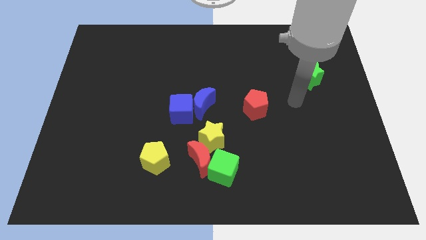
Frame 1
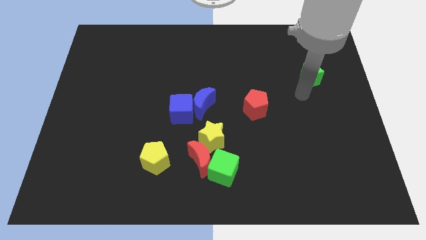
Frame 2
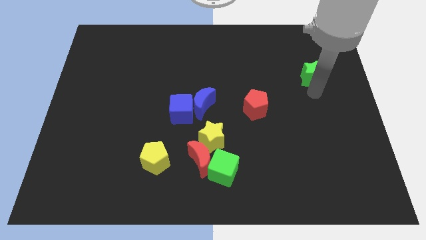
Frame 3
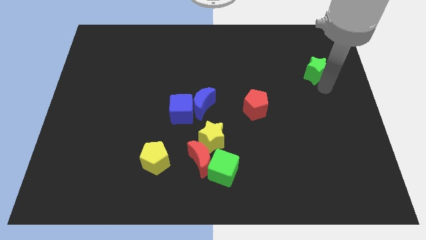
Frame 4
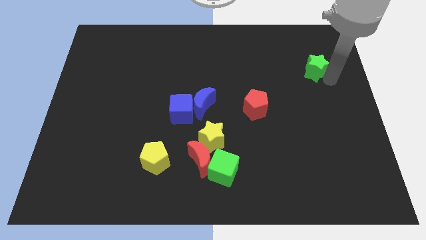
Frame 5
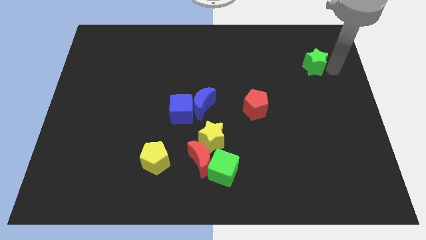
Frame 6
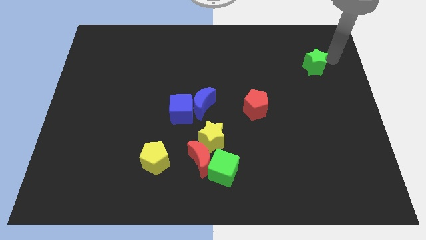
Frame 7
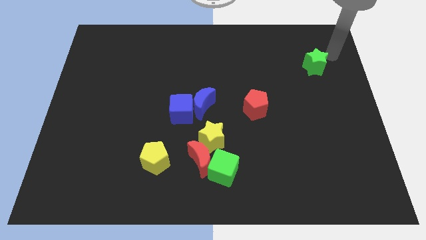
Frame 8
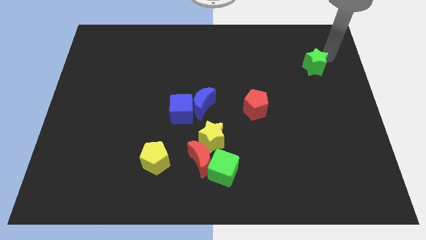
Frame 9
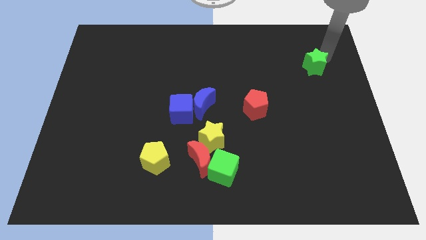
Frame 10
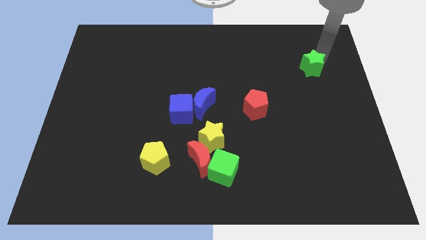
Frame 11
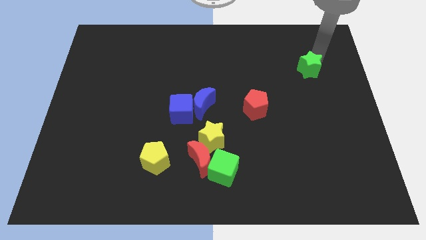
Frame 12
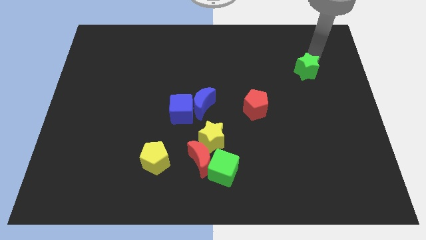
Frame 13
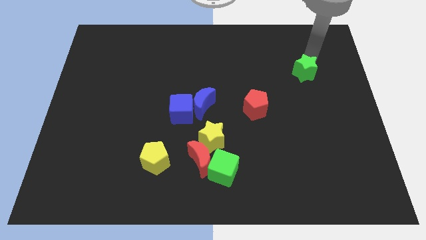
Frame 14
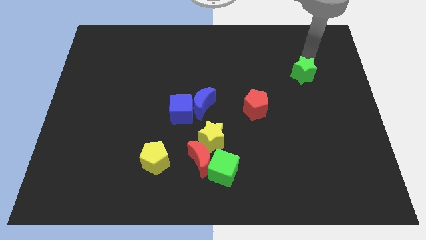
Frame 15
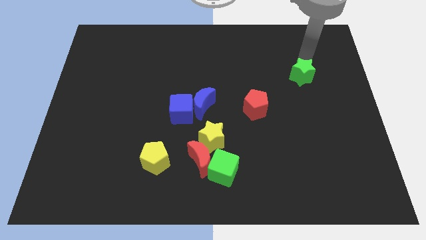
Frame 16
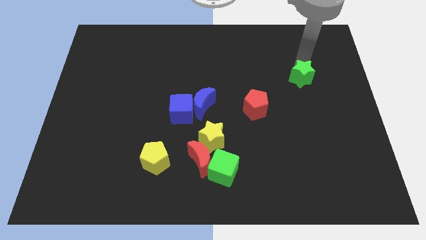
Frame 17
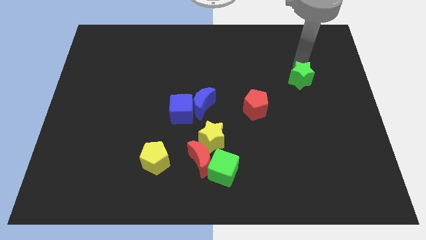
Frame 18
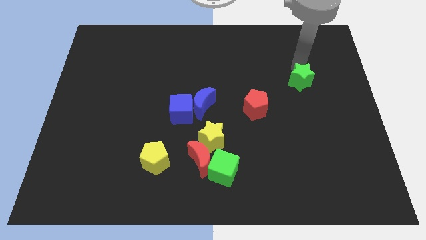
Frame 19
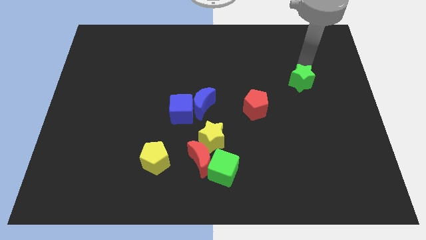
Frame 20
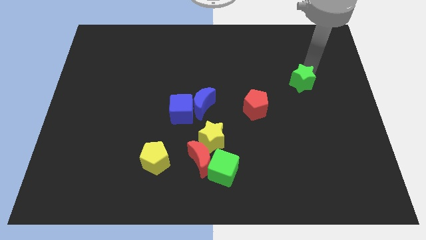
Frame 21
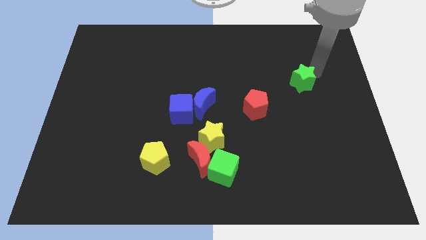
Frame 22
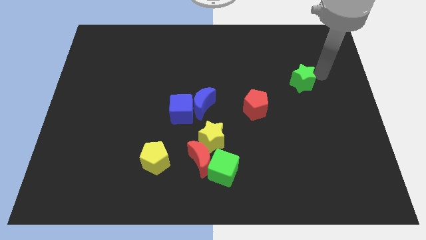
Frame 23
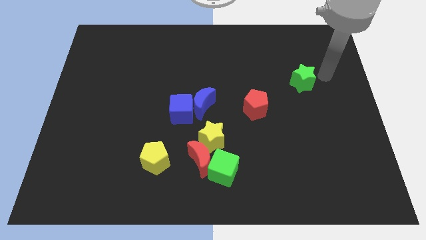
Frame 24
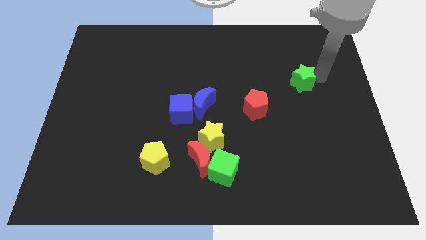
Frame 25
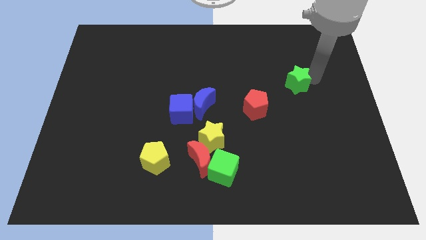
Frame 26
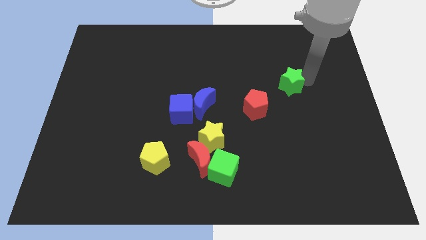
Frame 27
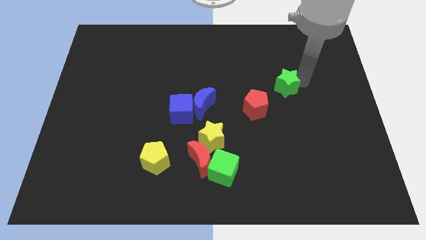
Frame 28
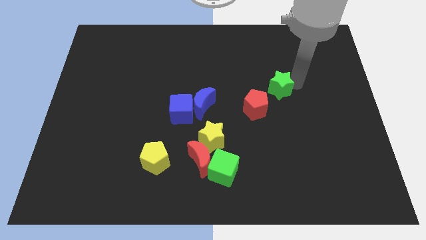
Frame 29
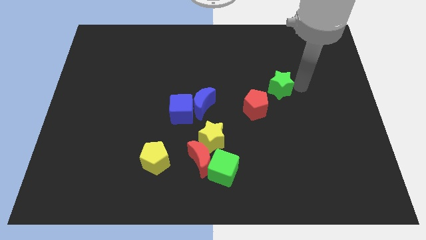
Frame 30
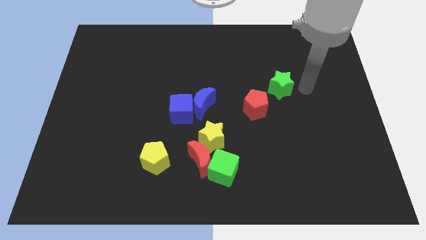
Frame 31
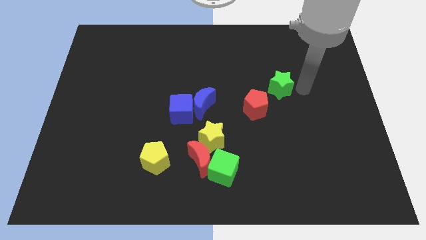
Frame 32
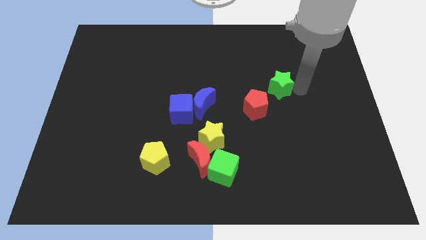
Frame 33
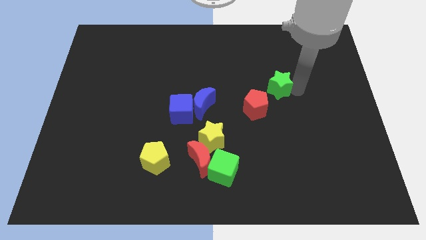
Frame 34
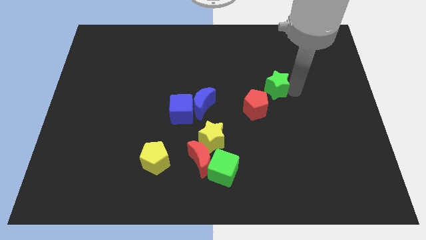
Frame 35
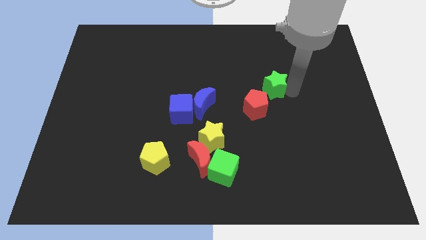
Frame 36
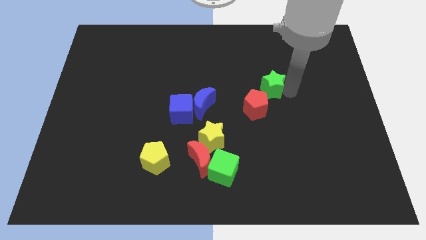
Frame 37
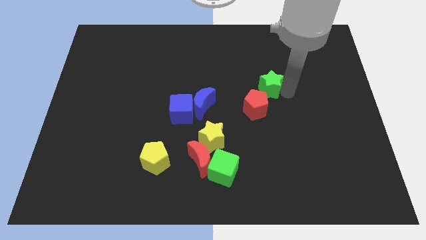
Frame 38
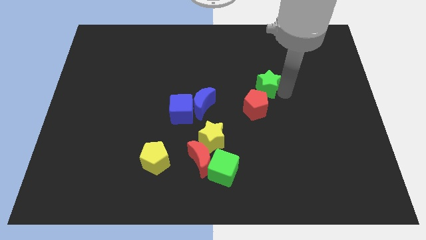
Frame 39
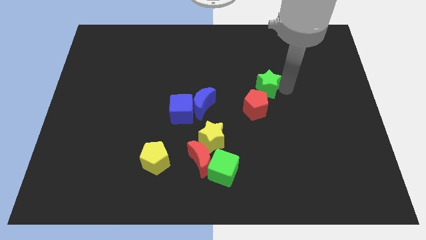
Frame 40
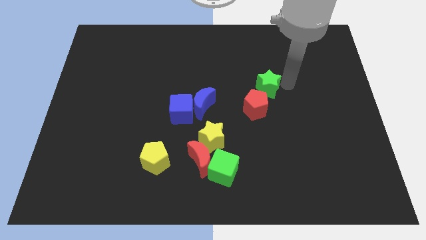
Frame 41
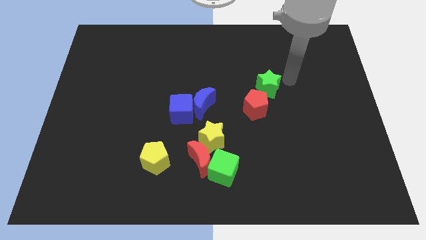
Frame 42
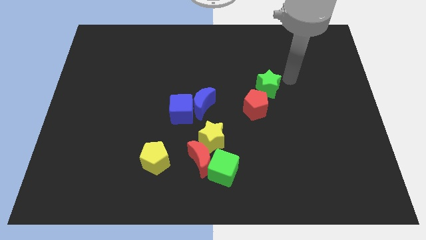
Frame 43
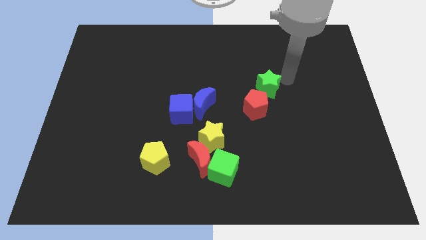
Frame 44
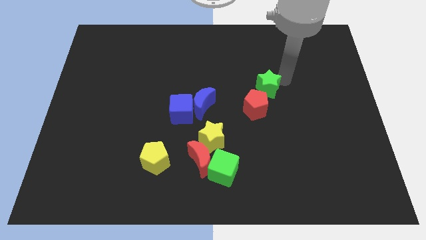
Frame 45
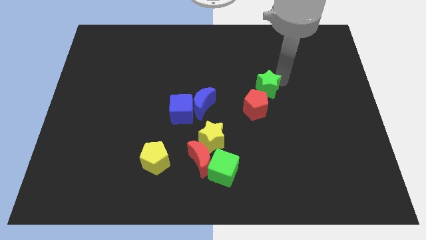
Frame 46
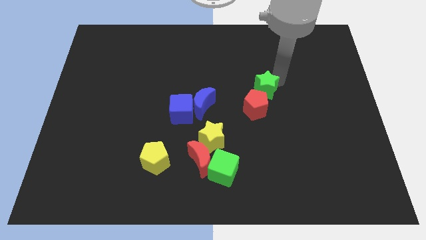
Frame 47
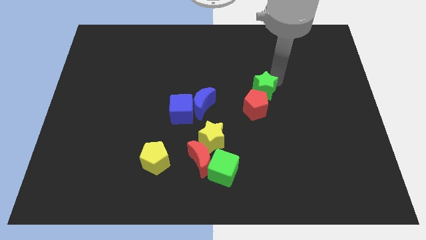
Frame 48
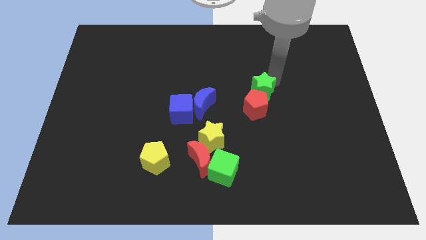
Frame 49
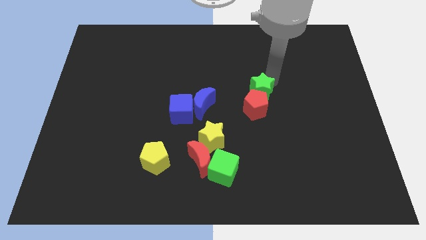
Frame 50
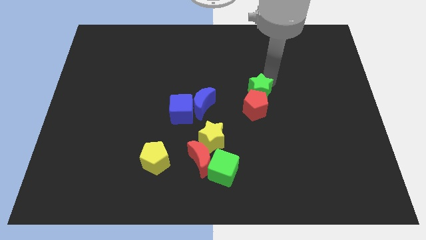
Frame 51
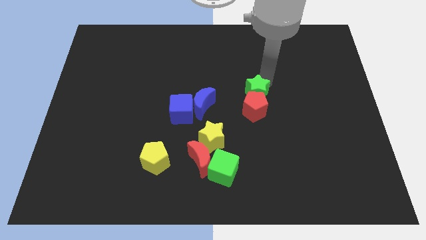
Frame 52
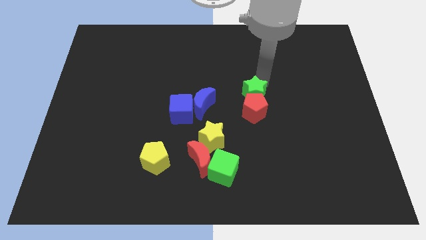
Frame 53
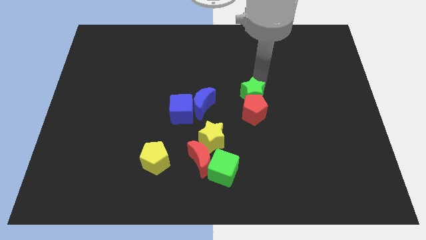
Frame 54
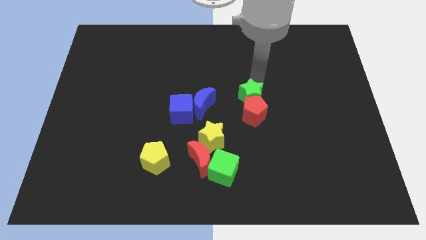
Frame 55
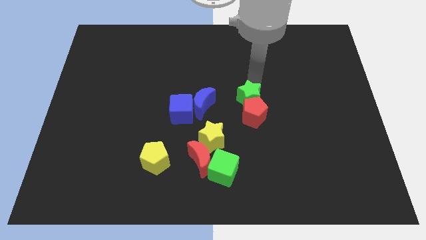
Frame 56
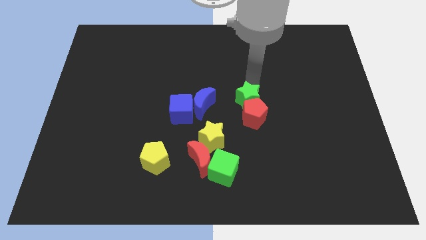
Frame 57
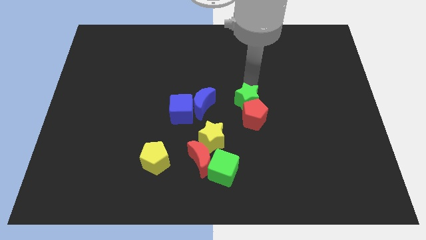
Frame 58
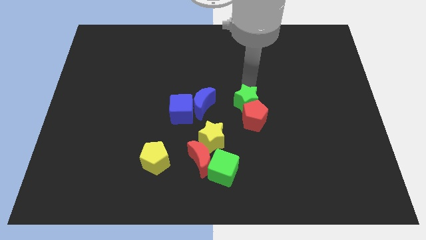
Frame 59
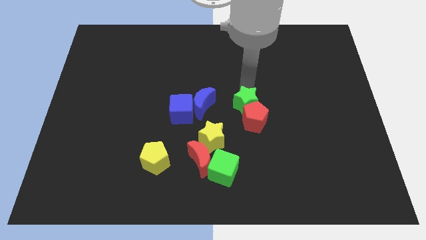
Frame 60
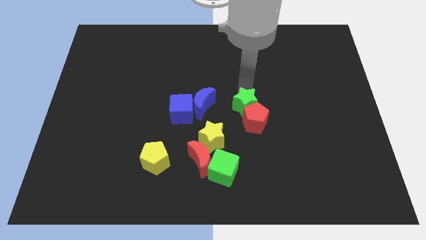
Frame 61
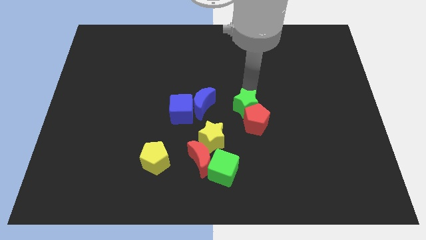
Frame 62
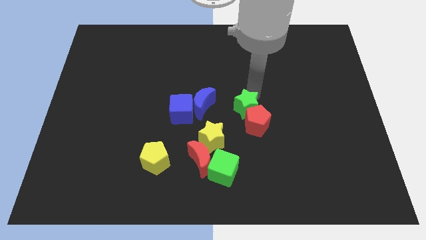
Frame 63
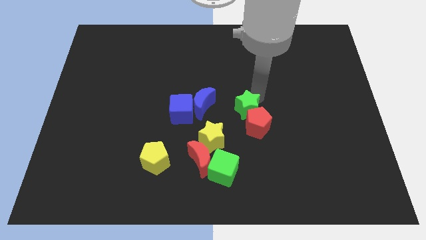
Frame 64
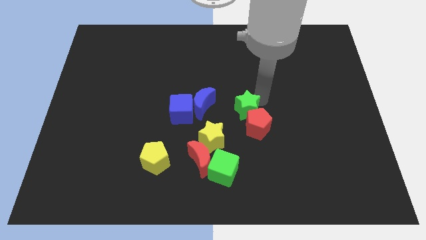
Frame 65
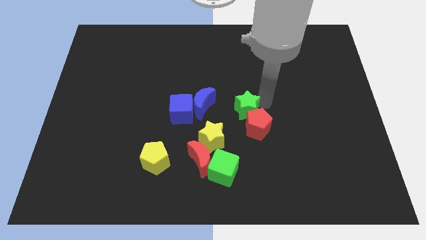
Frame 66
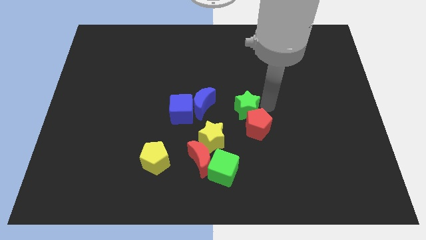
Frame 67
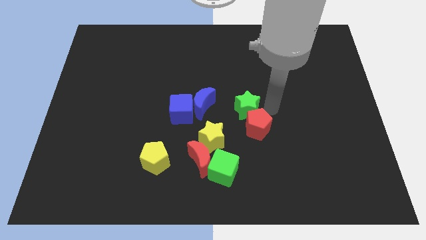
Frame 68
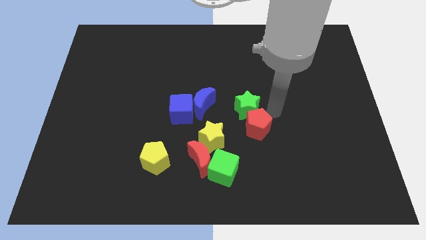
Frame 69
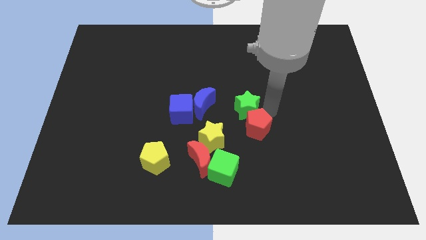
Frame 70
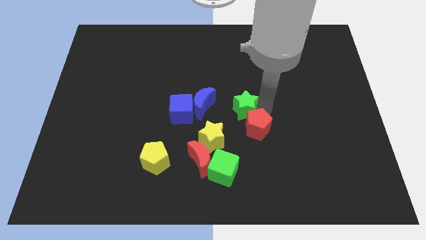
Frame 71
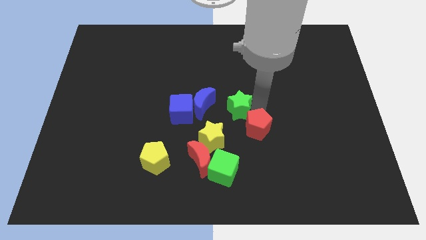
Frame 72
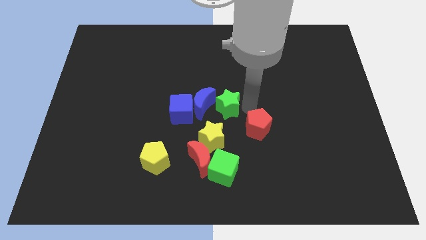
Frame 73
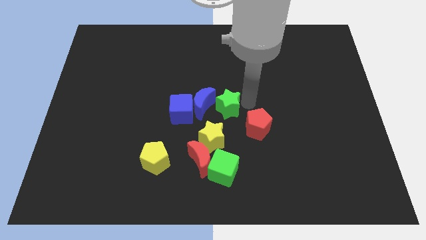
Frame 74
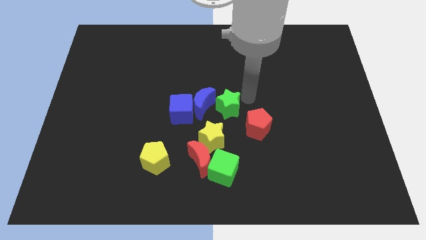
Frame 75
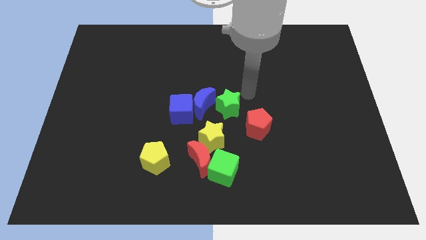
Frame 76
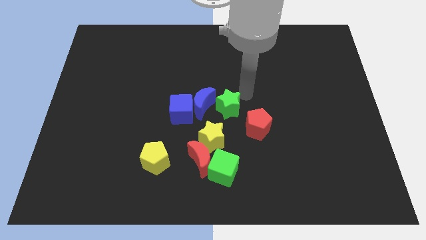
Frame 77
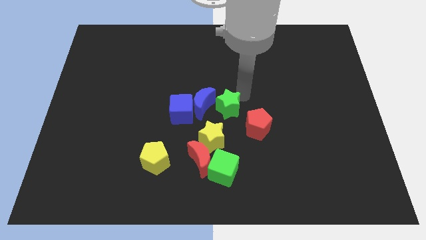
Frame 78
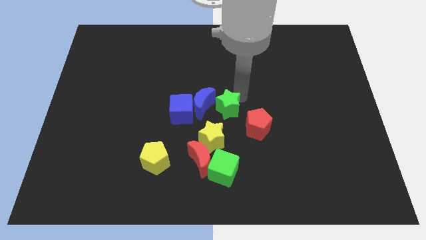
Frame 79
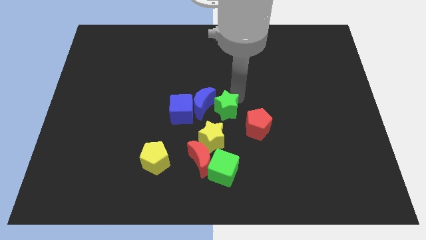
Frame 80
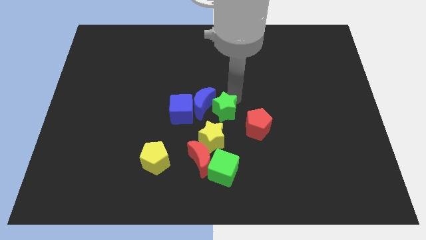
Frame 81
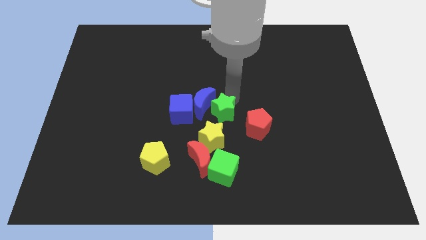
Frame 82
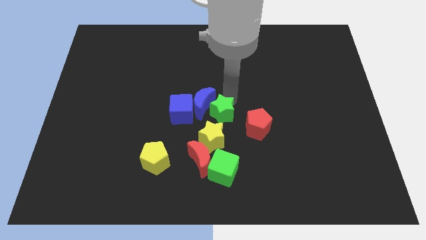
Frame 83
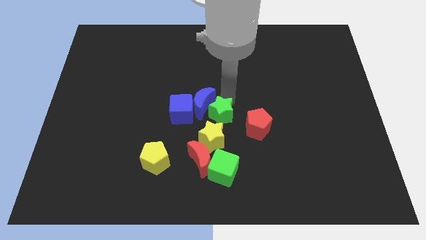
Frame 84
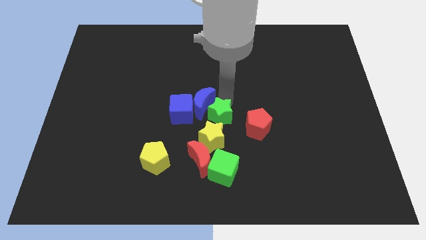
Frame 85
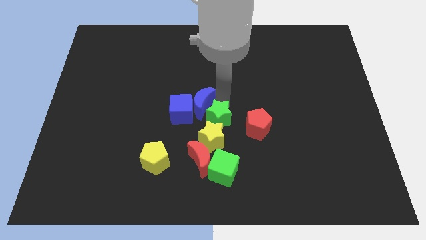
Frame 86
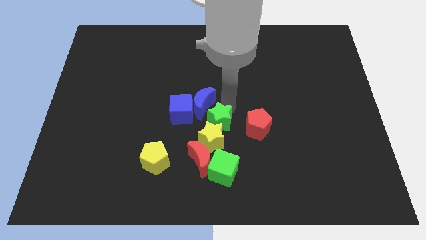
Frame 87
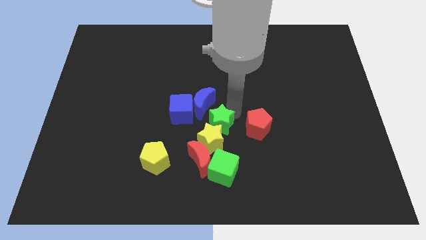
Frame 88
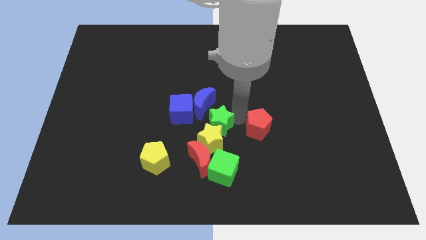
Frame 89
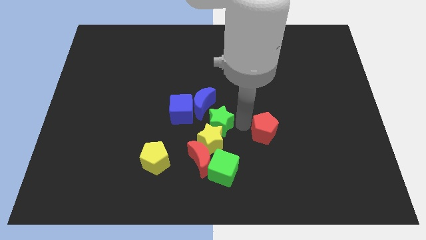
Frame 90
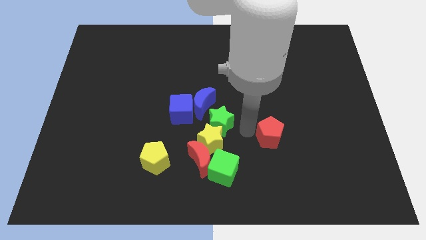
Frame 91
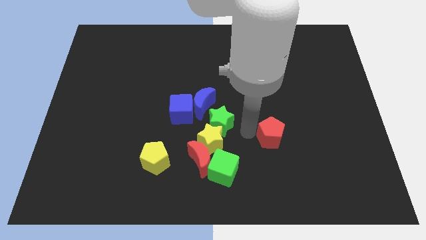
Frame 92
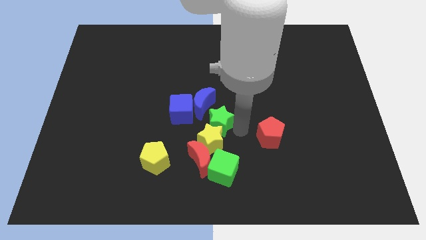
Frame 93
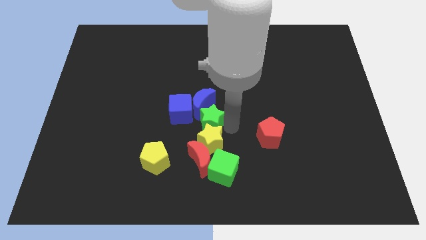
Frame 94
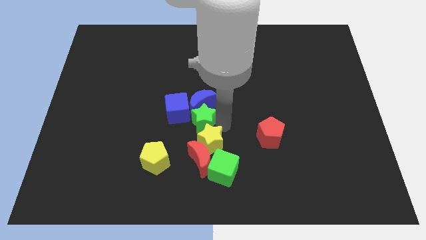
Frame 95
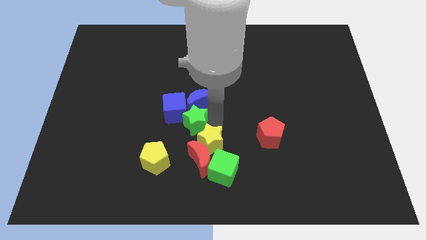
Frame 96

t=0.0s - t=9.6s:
put the green star next to the blue cube
